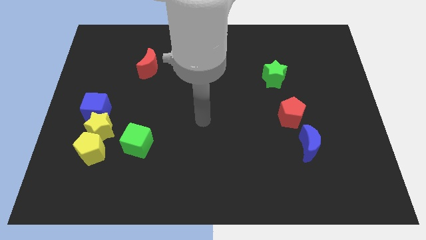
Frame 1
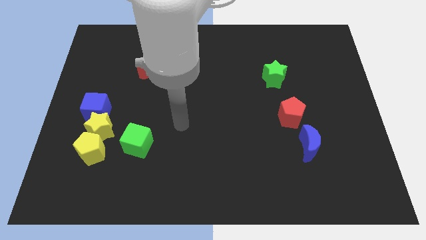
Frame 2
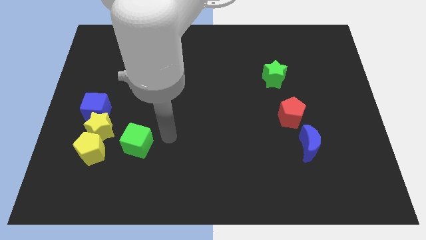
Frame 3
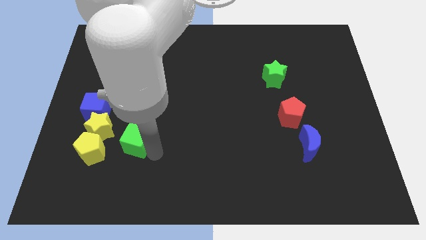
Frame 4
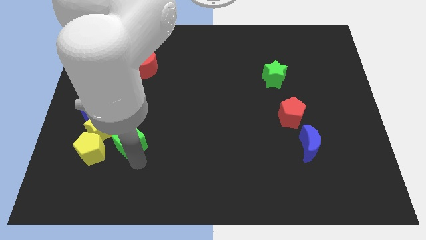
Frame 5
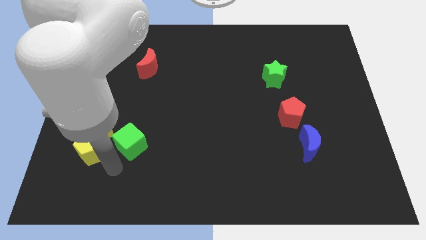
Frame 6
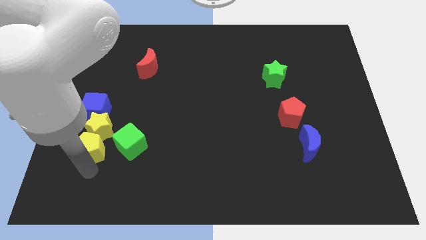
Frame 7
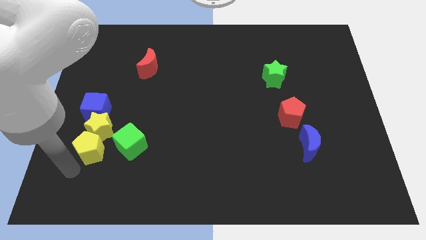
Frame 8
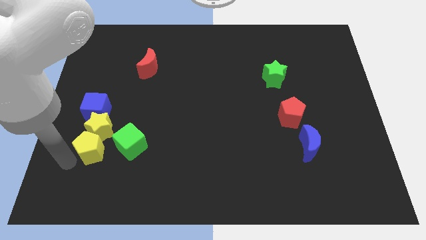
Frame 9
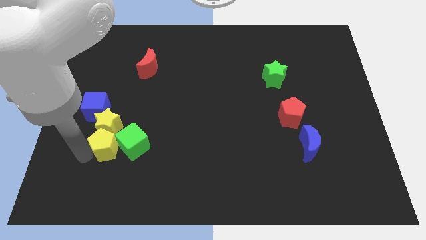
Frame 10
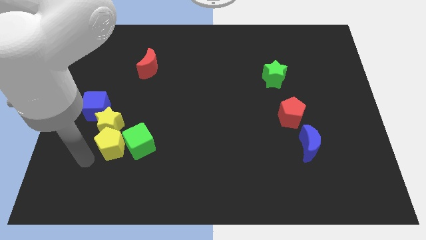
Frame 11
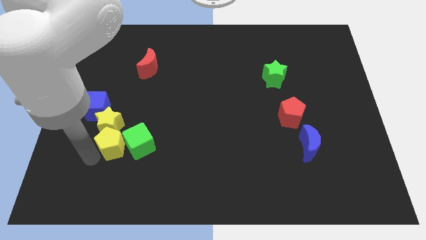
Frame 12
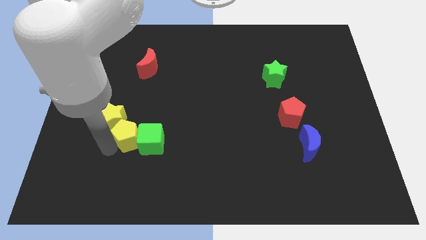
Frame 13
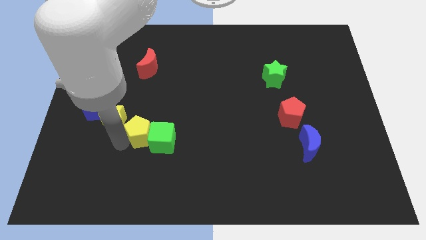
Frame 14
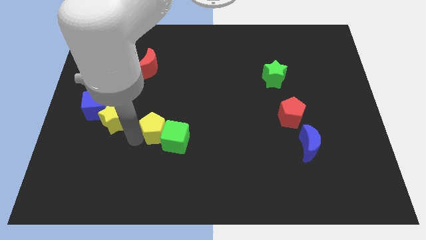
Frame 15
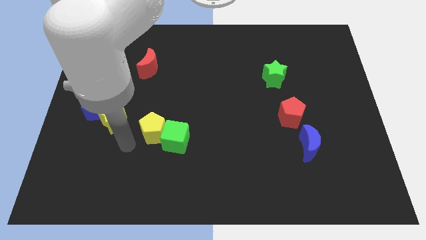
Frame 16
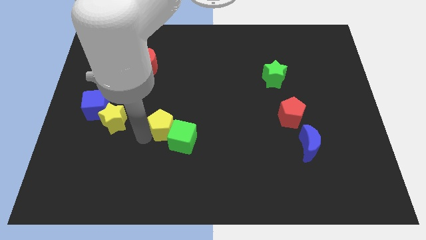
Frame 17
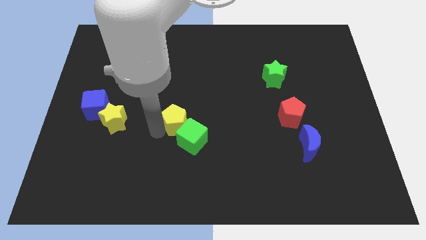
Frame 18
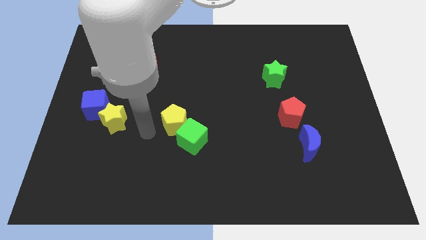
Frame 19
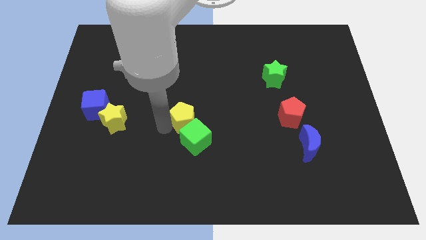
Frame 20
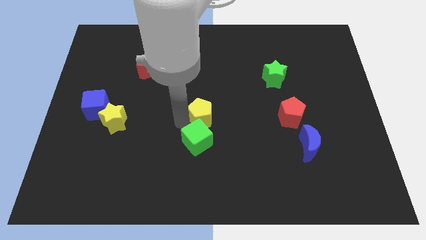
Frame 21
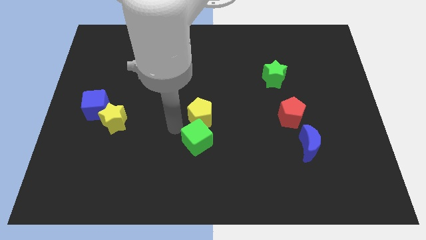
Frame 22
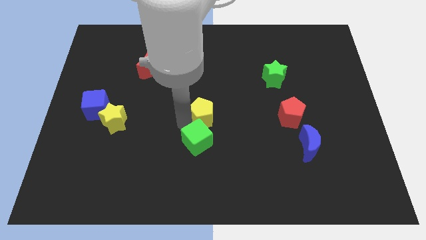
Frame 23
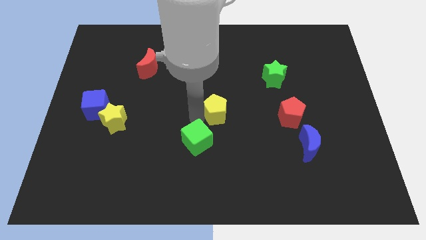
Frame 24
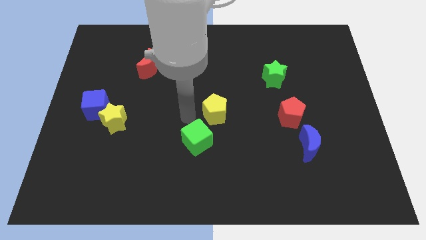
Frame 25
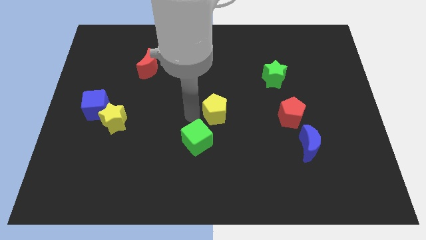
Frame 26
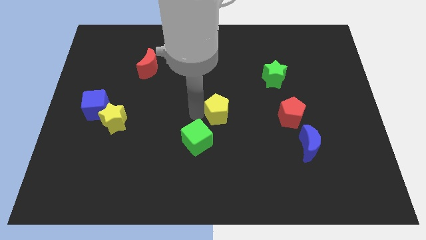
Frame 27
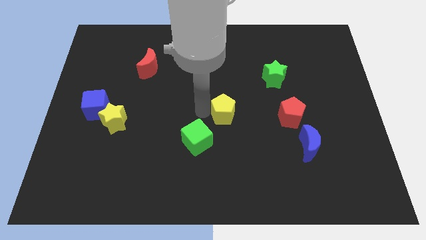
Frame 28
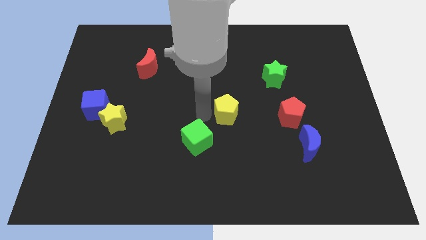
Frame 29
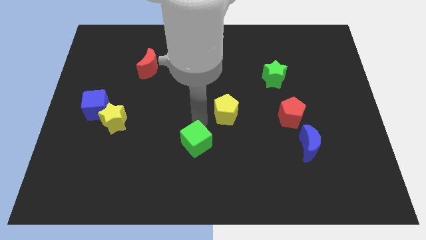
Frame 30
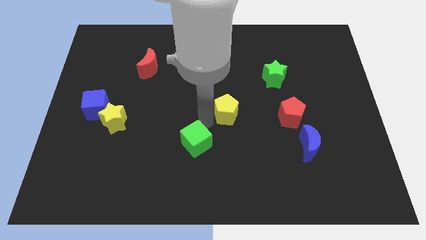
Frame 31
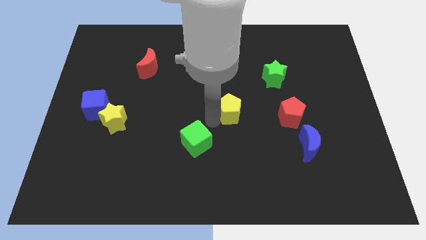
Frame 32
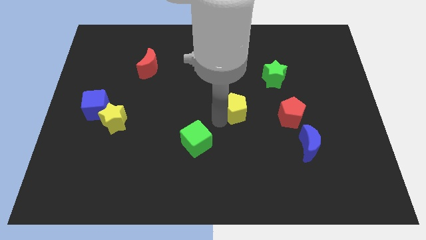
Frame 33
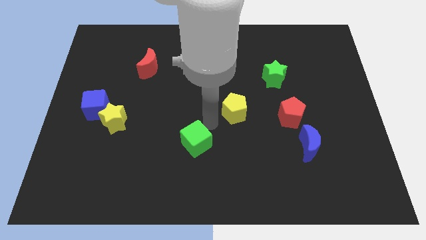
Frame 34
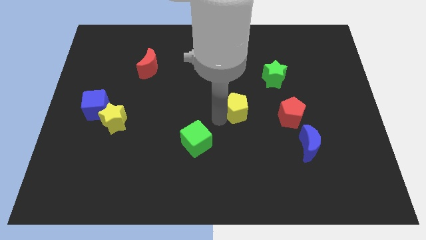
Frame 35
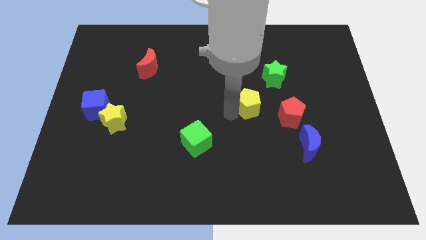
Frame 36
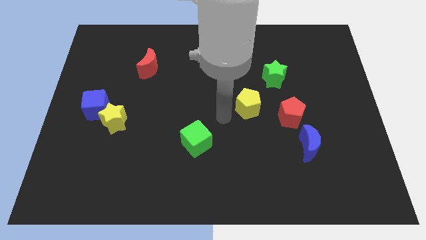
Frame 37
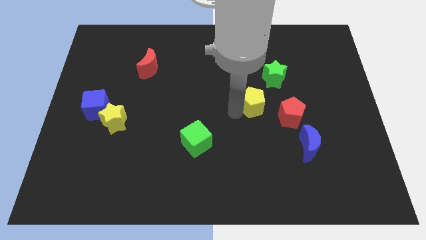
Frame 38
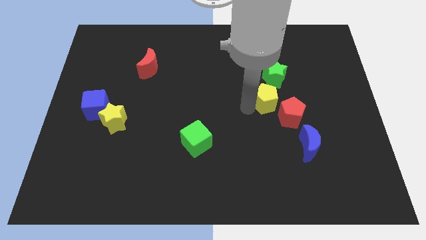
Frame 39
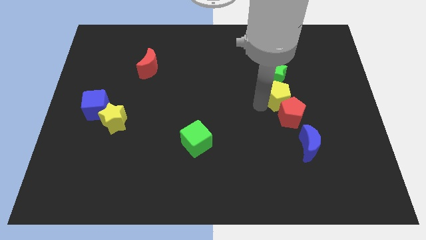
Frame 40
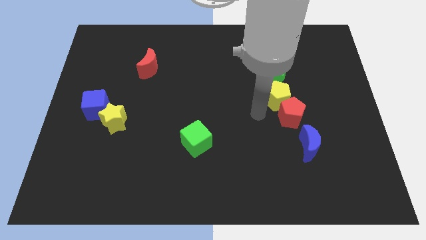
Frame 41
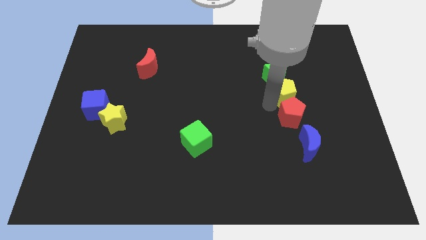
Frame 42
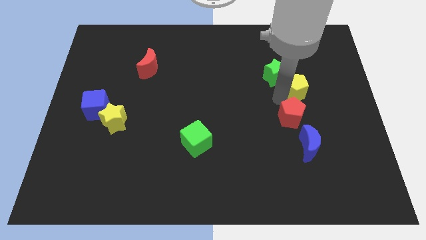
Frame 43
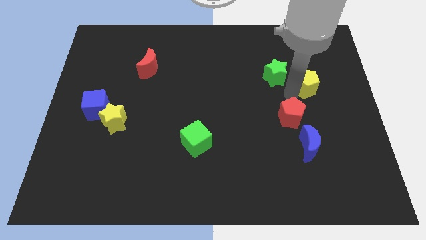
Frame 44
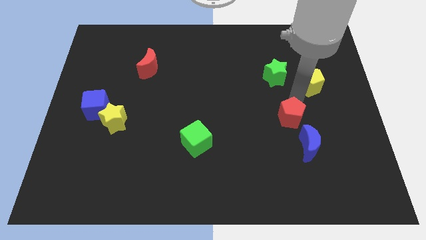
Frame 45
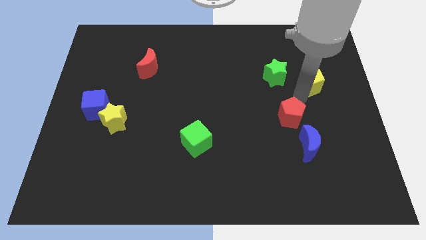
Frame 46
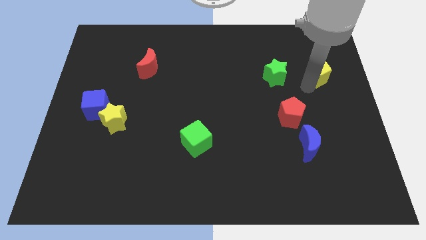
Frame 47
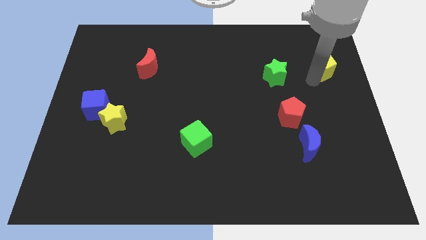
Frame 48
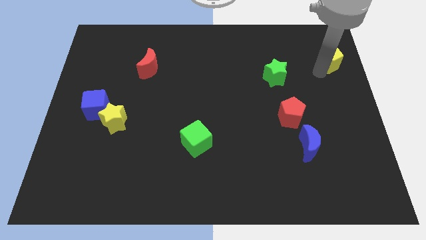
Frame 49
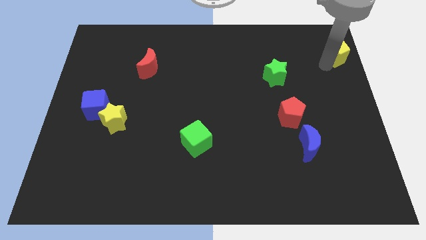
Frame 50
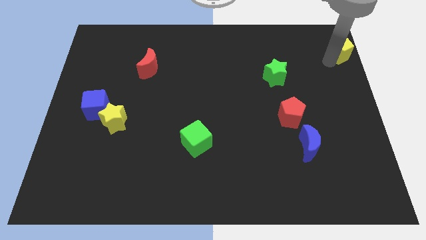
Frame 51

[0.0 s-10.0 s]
move the yellow pentagon to the top right of the board
